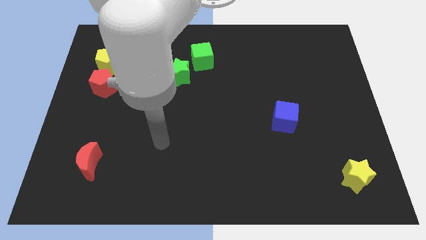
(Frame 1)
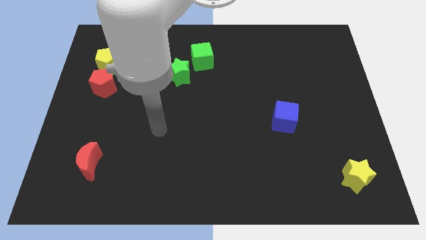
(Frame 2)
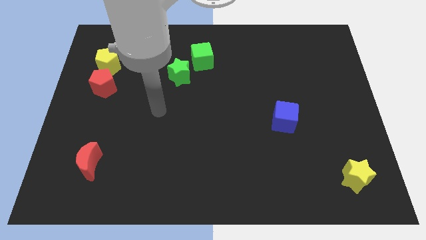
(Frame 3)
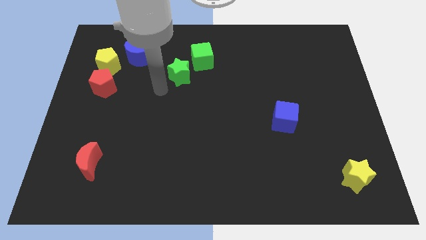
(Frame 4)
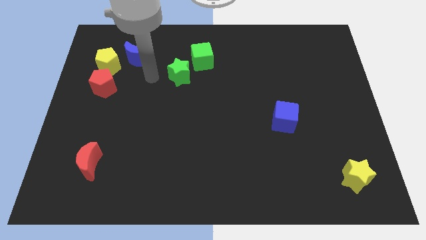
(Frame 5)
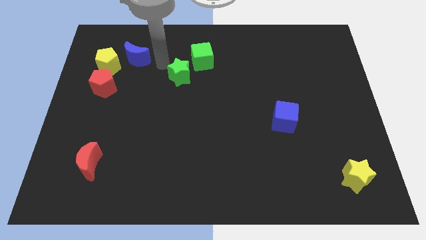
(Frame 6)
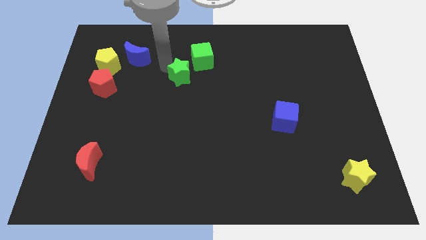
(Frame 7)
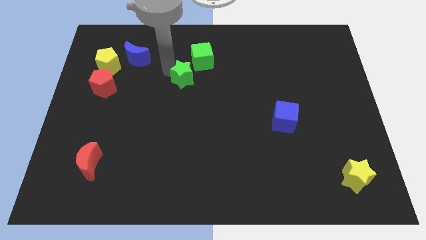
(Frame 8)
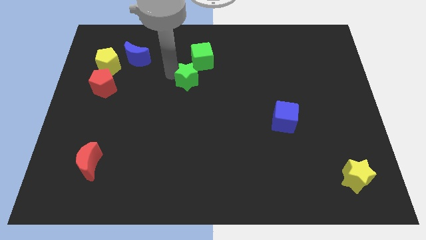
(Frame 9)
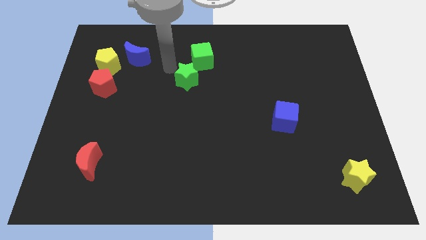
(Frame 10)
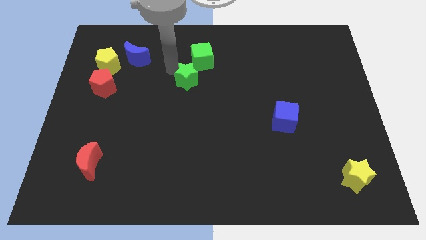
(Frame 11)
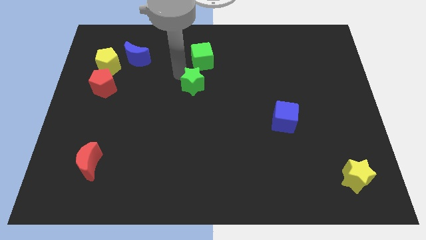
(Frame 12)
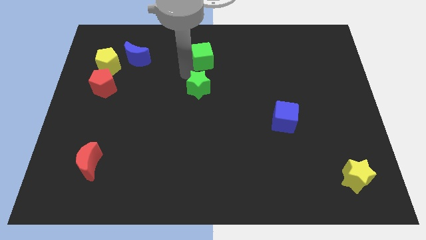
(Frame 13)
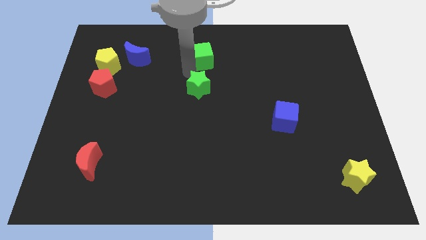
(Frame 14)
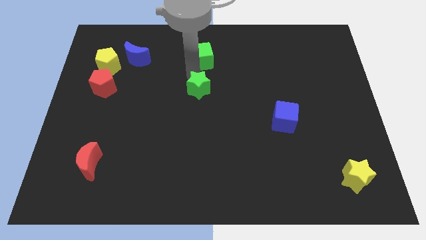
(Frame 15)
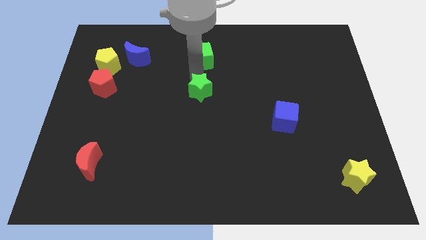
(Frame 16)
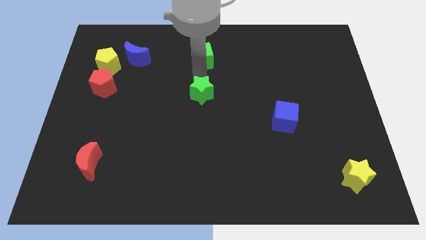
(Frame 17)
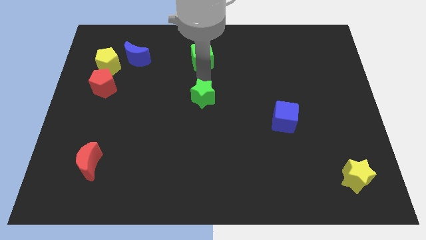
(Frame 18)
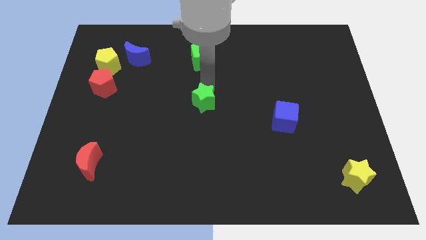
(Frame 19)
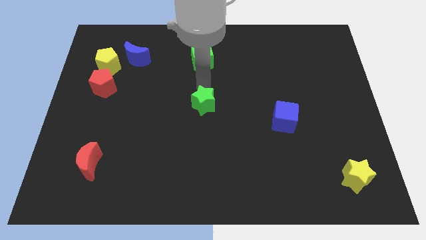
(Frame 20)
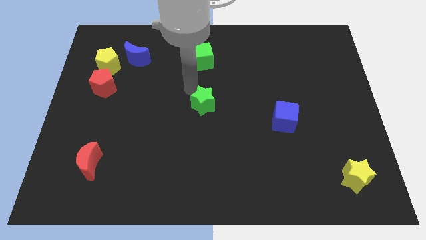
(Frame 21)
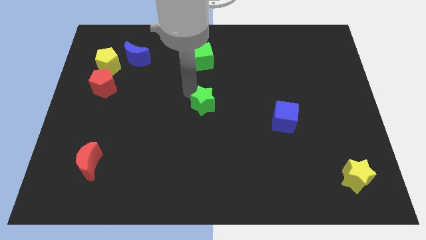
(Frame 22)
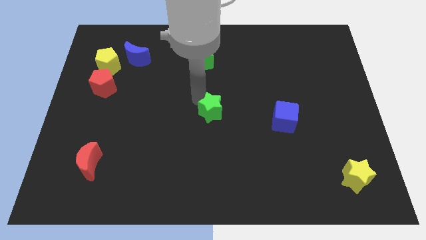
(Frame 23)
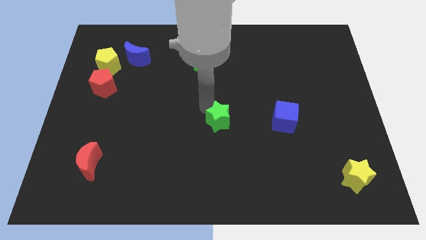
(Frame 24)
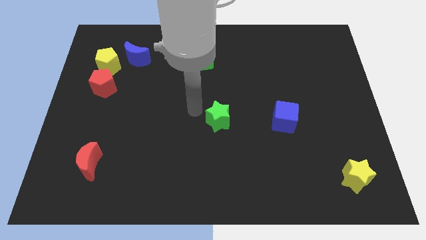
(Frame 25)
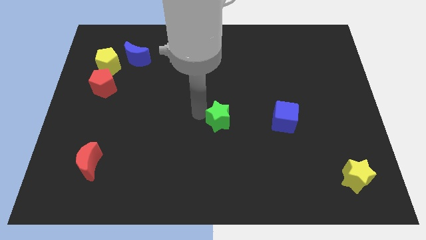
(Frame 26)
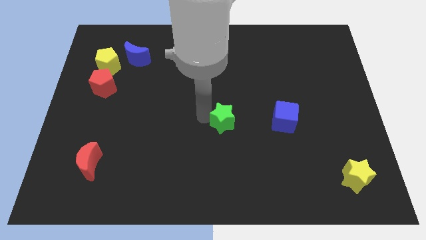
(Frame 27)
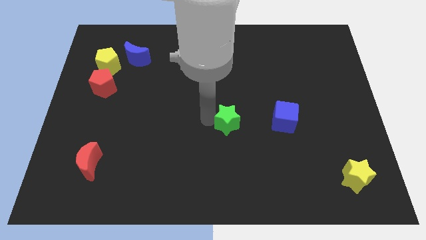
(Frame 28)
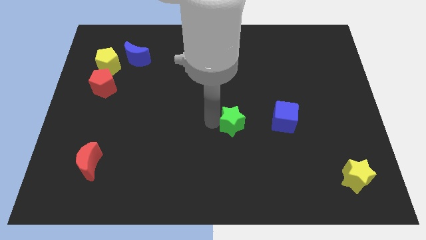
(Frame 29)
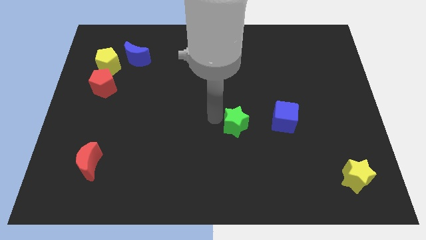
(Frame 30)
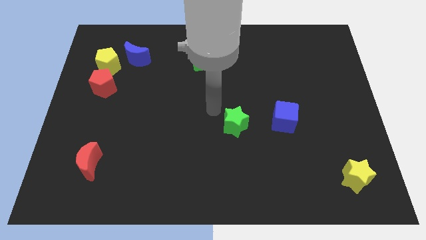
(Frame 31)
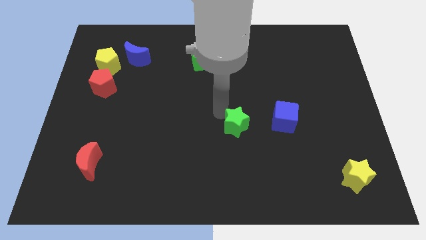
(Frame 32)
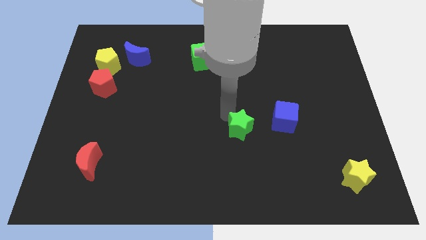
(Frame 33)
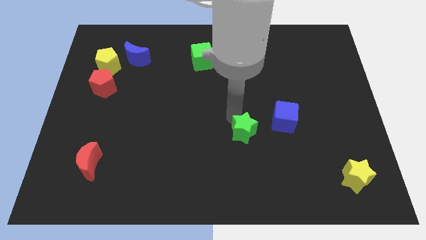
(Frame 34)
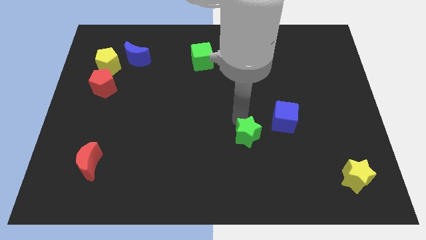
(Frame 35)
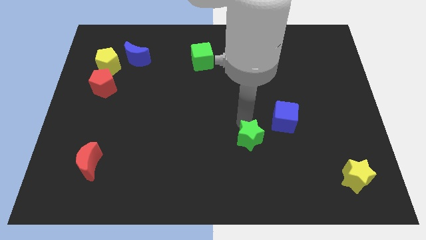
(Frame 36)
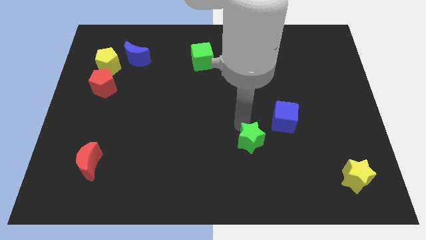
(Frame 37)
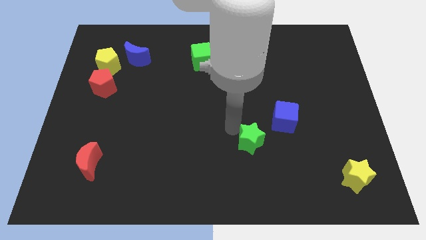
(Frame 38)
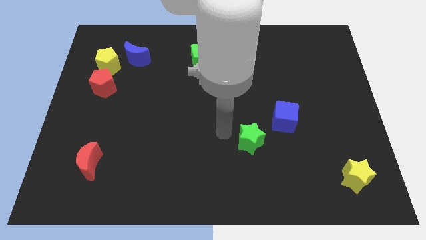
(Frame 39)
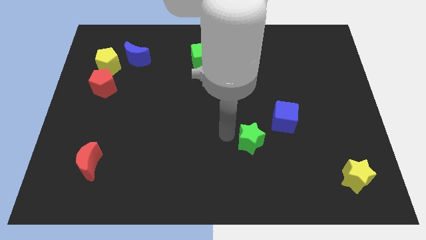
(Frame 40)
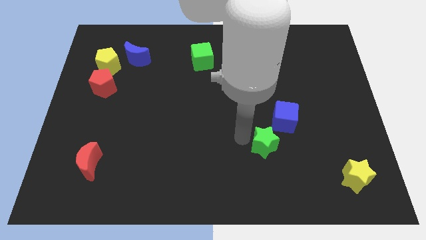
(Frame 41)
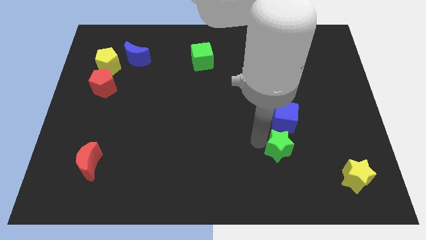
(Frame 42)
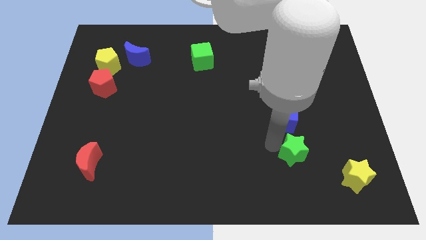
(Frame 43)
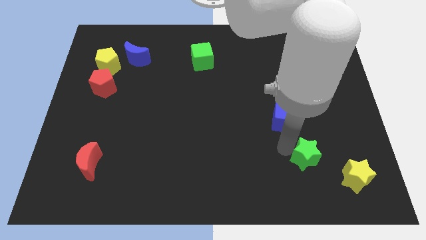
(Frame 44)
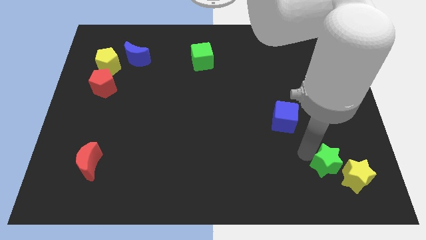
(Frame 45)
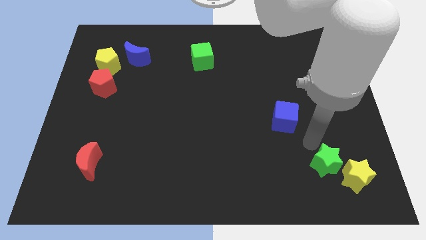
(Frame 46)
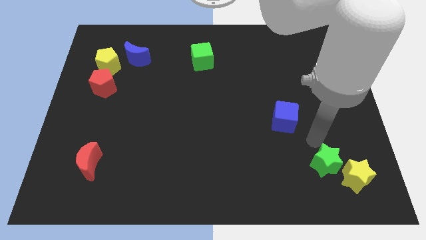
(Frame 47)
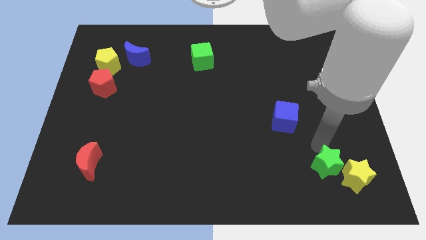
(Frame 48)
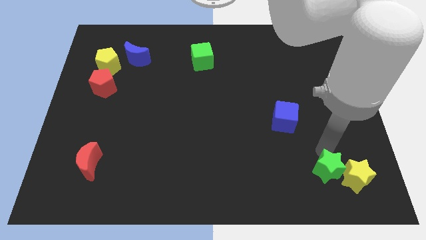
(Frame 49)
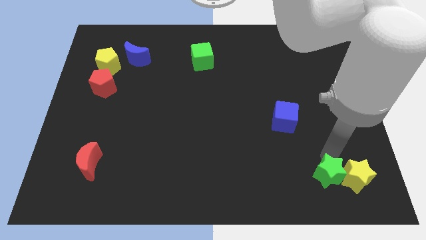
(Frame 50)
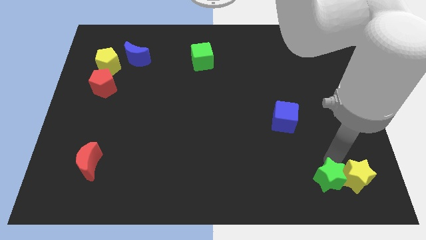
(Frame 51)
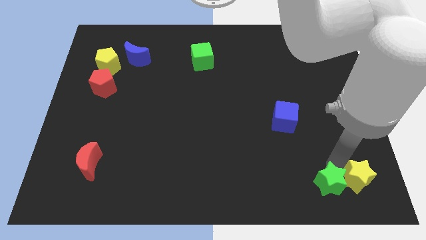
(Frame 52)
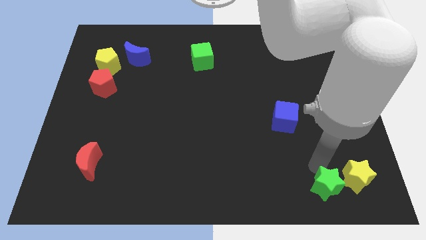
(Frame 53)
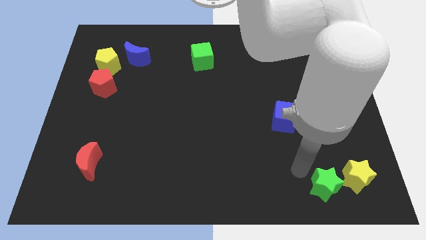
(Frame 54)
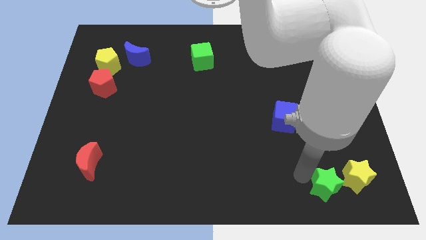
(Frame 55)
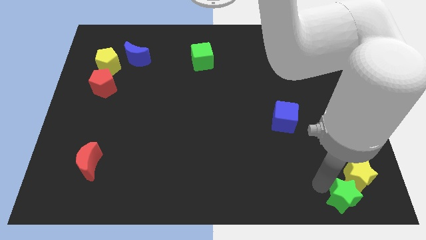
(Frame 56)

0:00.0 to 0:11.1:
put the green star to the lower right corner

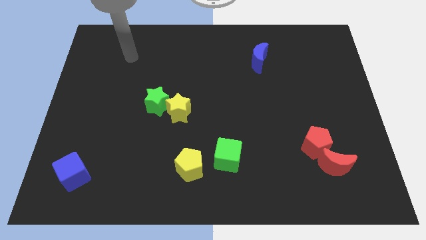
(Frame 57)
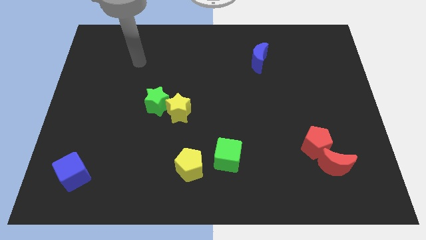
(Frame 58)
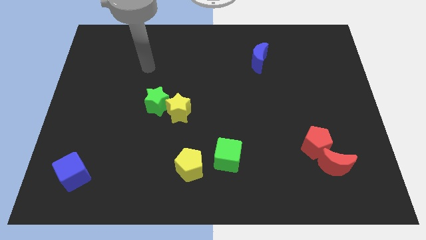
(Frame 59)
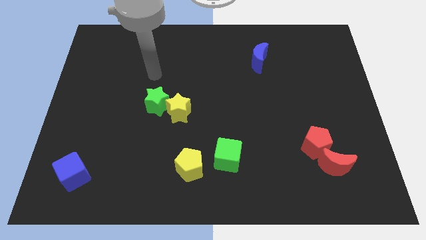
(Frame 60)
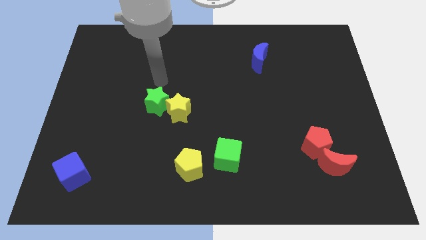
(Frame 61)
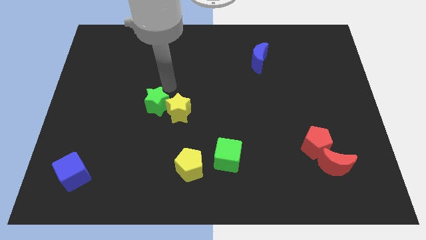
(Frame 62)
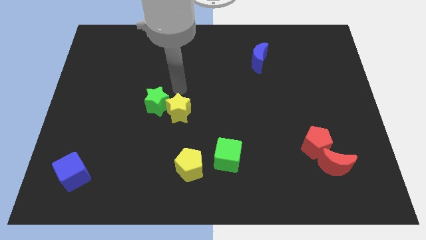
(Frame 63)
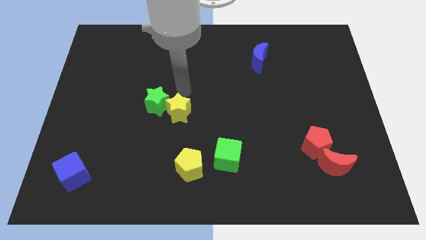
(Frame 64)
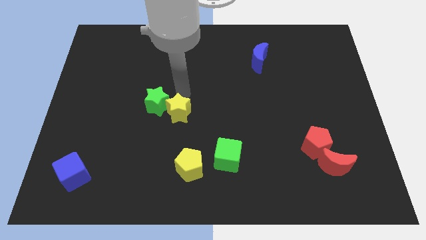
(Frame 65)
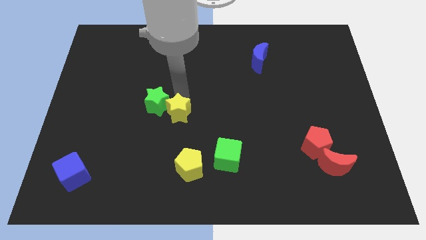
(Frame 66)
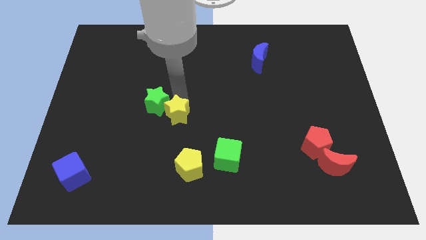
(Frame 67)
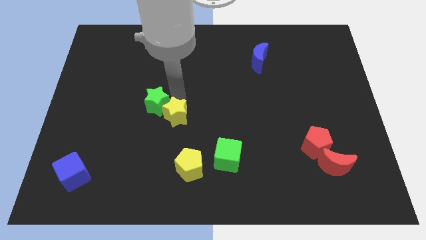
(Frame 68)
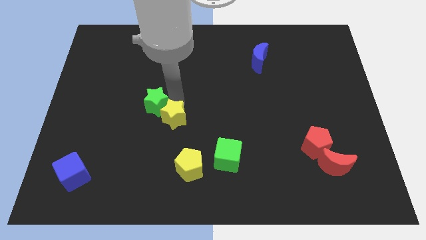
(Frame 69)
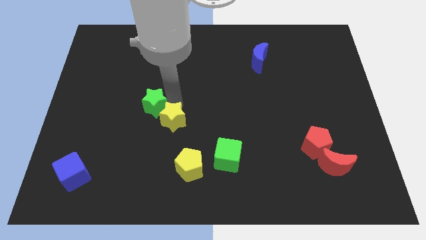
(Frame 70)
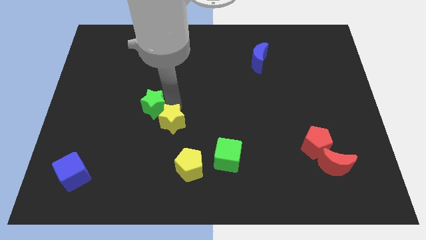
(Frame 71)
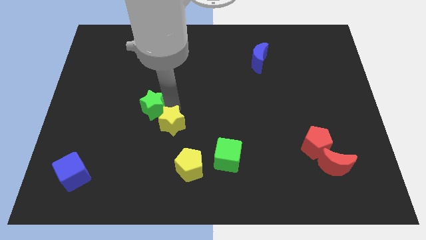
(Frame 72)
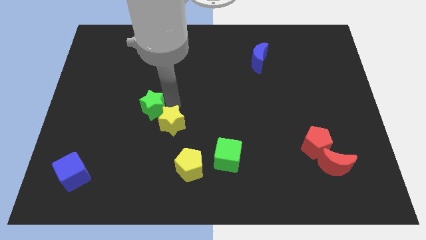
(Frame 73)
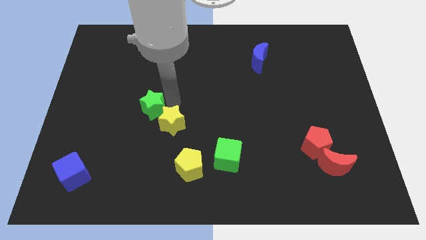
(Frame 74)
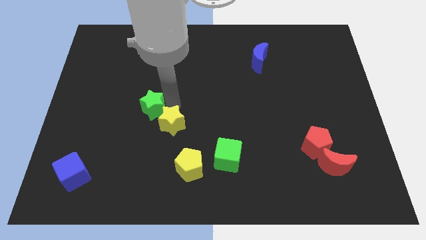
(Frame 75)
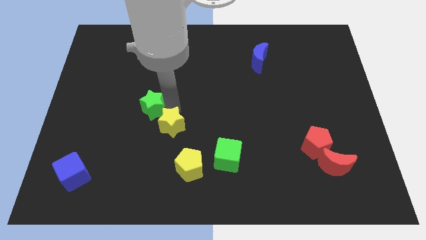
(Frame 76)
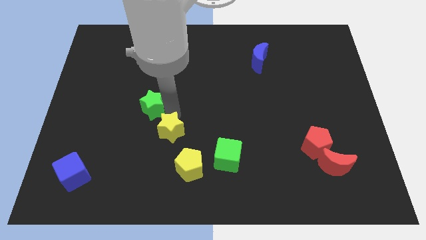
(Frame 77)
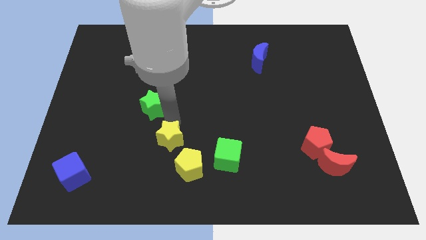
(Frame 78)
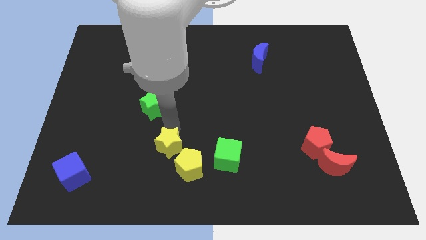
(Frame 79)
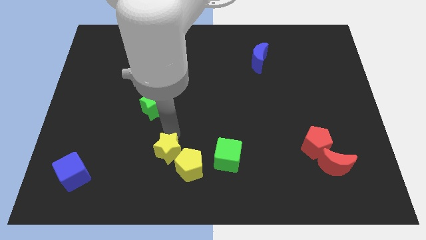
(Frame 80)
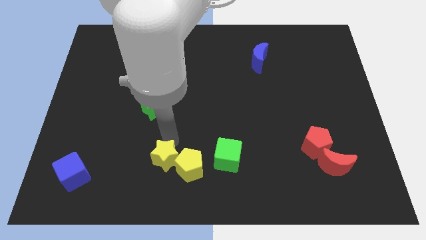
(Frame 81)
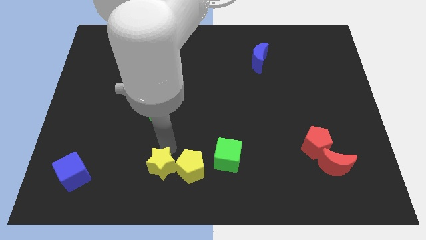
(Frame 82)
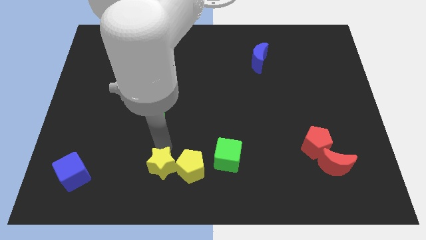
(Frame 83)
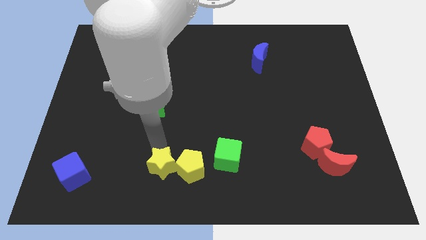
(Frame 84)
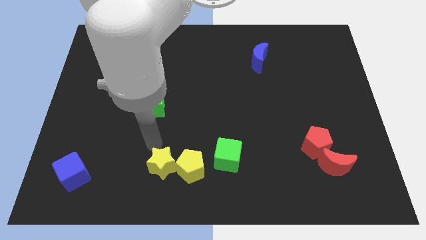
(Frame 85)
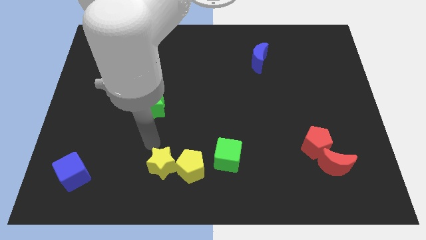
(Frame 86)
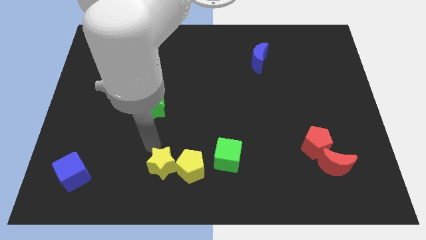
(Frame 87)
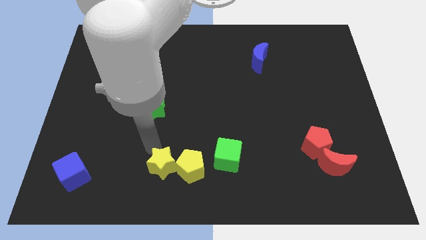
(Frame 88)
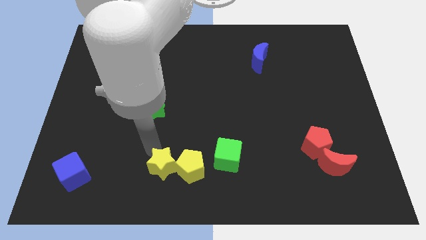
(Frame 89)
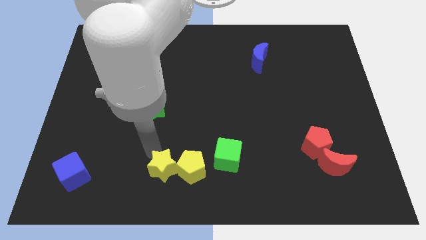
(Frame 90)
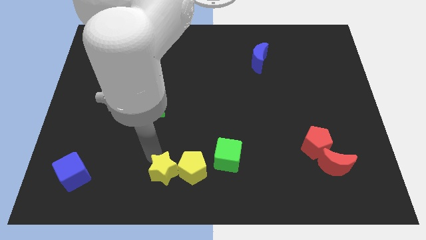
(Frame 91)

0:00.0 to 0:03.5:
slide the yellow star to the bottom side
